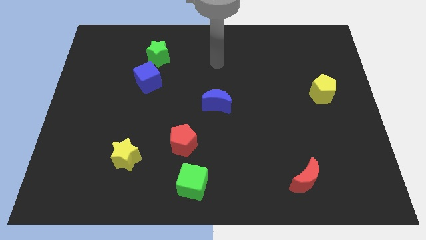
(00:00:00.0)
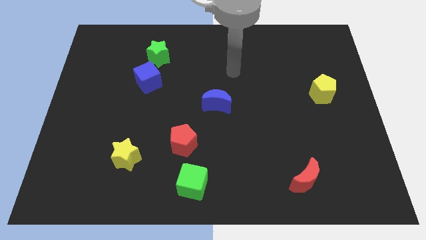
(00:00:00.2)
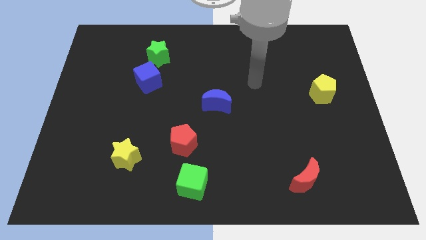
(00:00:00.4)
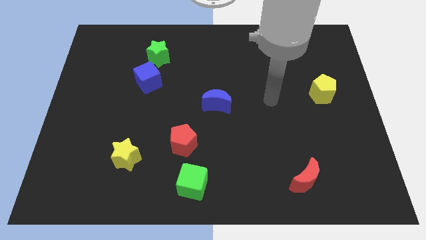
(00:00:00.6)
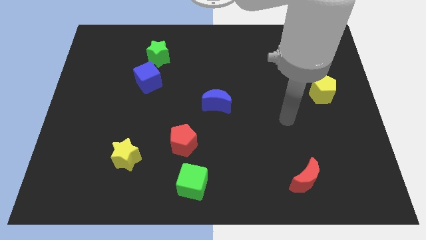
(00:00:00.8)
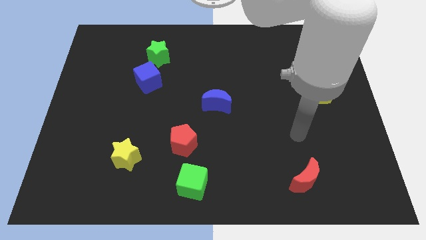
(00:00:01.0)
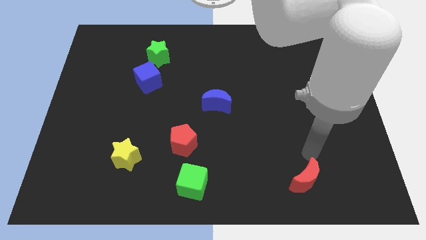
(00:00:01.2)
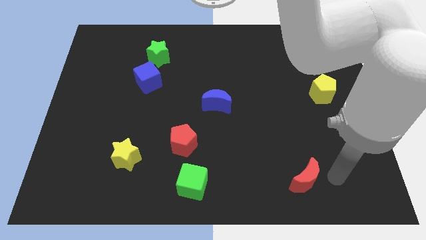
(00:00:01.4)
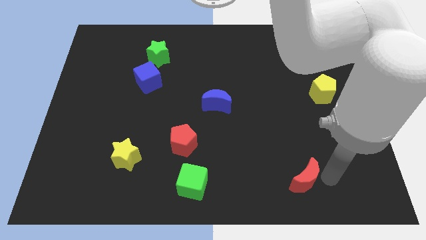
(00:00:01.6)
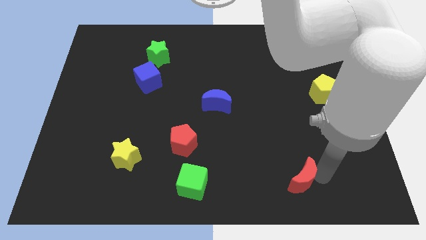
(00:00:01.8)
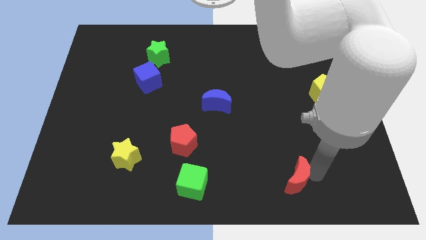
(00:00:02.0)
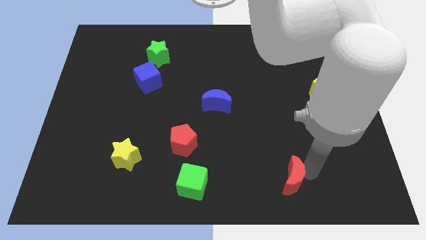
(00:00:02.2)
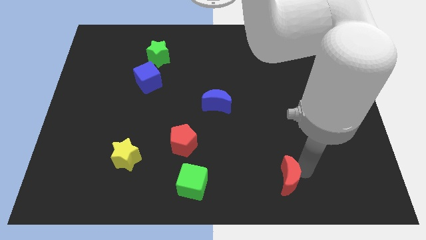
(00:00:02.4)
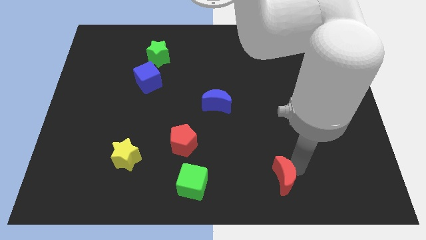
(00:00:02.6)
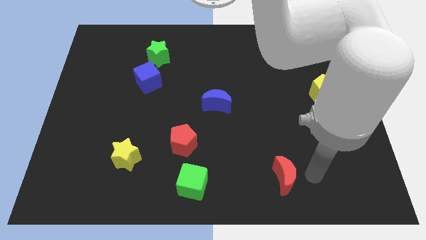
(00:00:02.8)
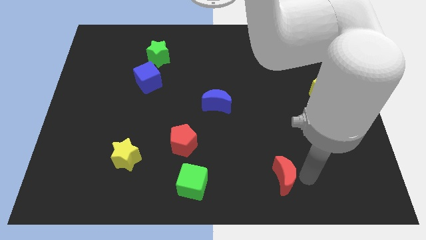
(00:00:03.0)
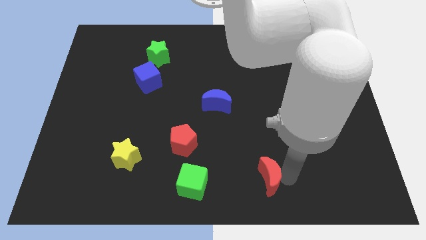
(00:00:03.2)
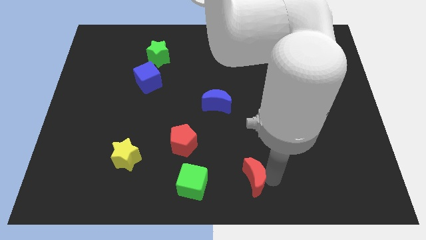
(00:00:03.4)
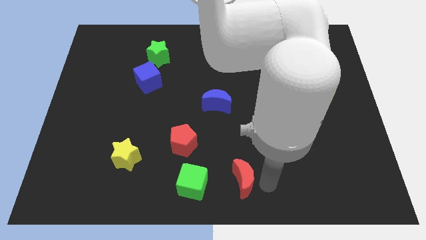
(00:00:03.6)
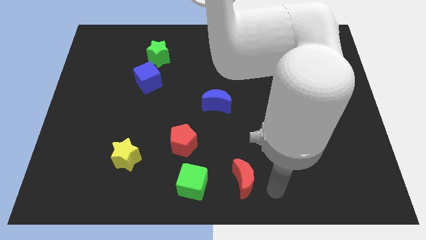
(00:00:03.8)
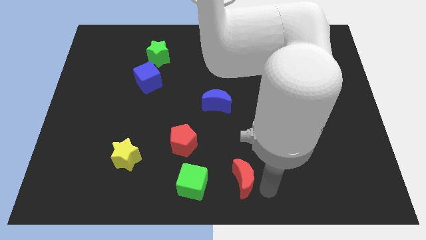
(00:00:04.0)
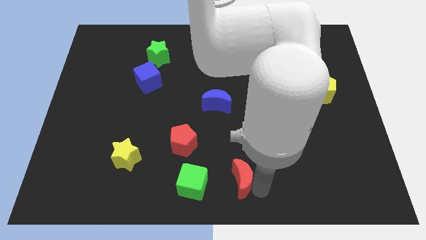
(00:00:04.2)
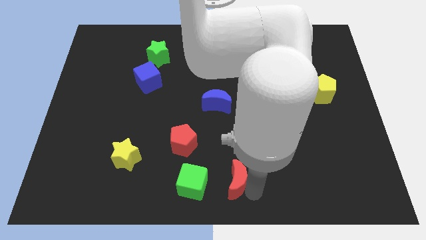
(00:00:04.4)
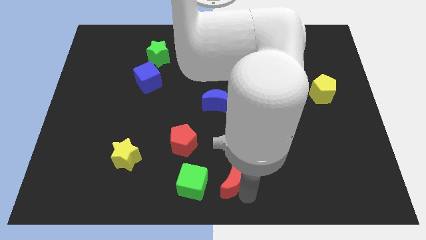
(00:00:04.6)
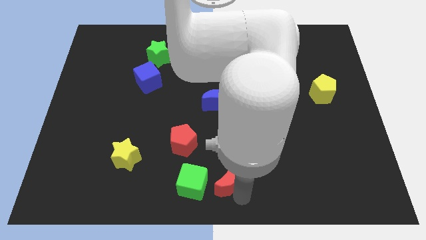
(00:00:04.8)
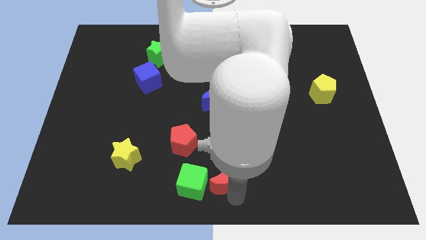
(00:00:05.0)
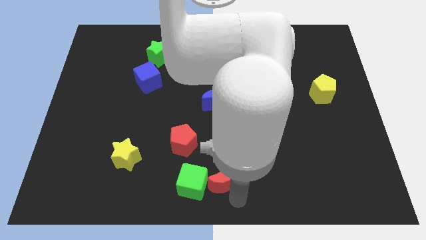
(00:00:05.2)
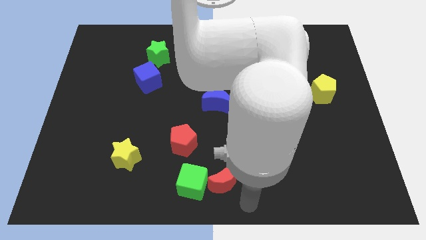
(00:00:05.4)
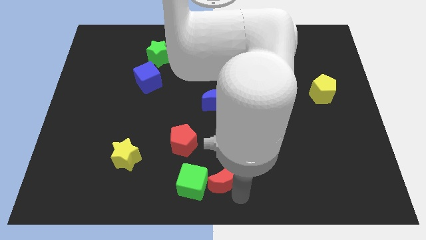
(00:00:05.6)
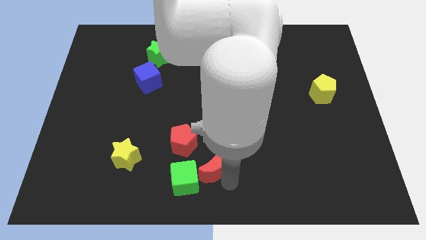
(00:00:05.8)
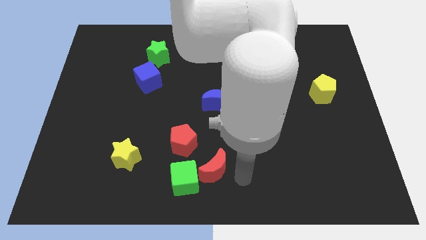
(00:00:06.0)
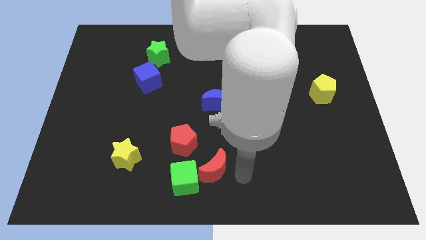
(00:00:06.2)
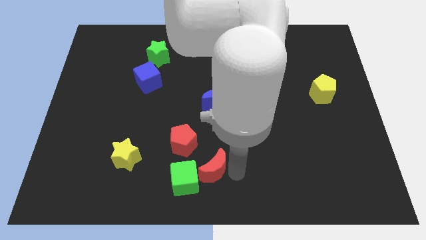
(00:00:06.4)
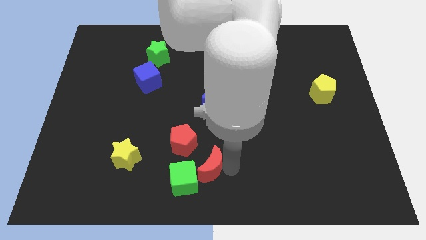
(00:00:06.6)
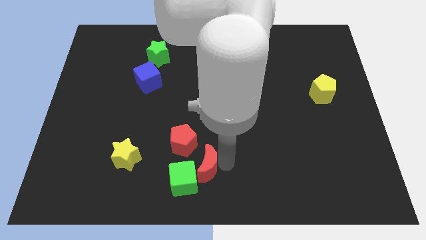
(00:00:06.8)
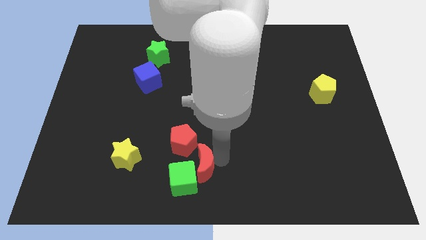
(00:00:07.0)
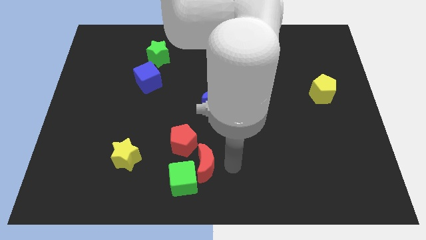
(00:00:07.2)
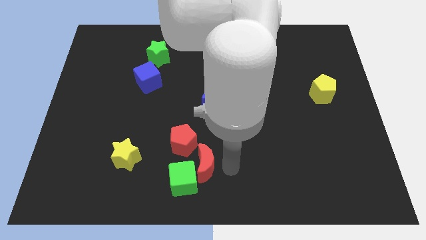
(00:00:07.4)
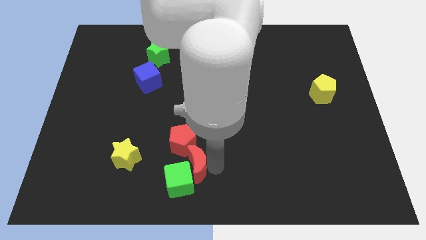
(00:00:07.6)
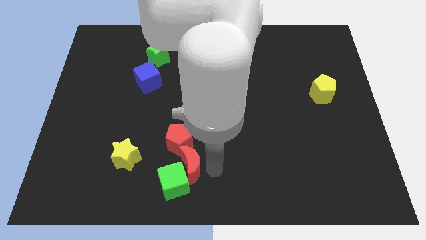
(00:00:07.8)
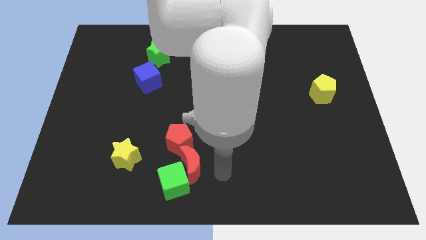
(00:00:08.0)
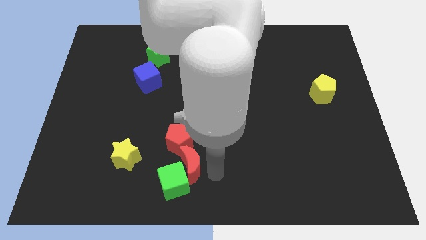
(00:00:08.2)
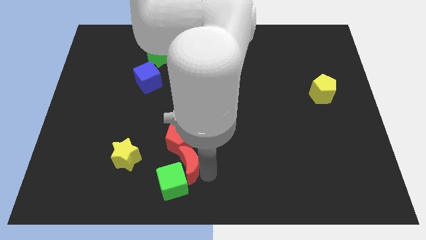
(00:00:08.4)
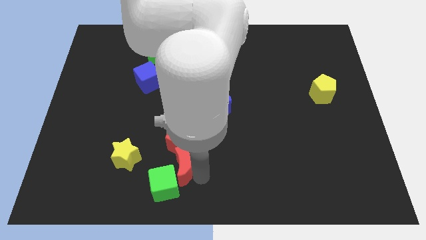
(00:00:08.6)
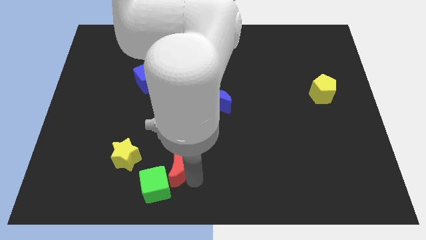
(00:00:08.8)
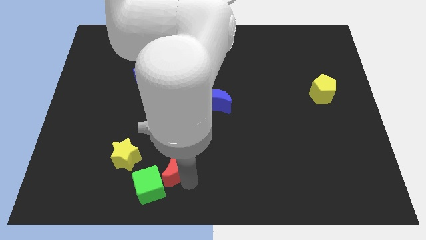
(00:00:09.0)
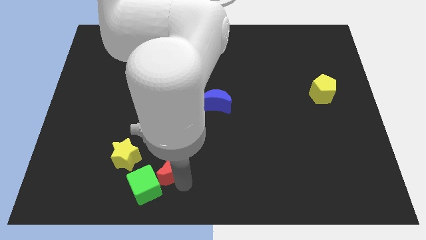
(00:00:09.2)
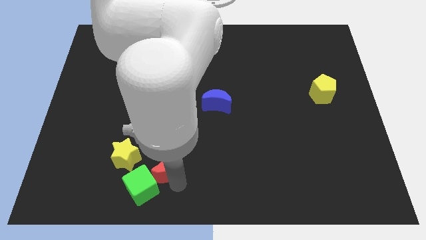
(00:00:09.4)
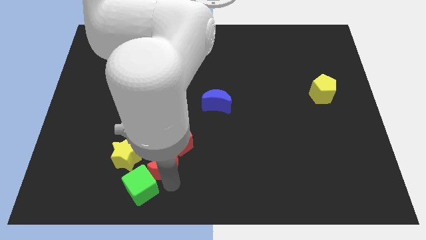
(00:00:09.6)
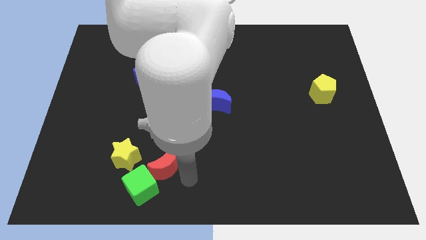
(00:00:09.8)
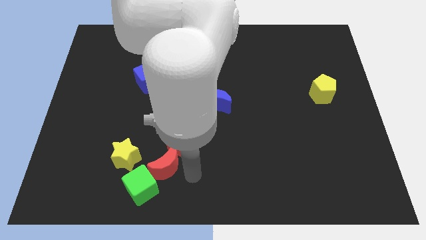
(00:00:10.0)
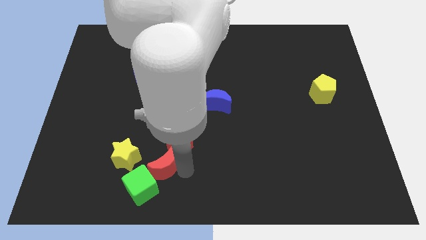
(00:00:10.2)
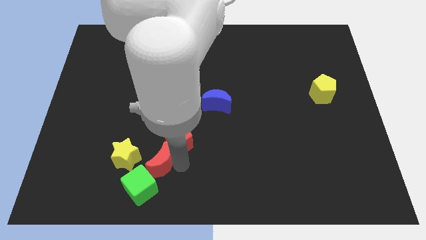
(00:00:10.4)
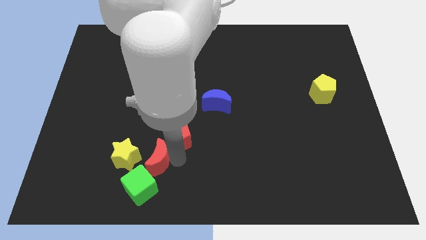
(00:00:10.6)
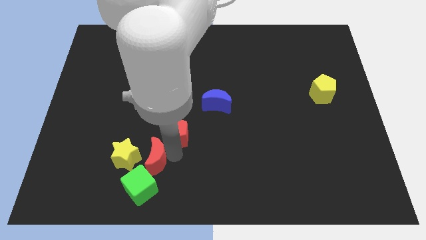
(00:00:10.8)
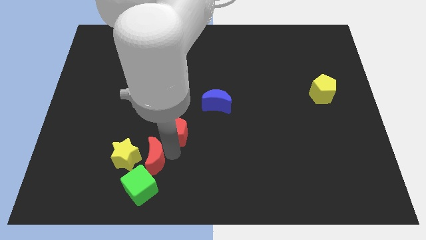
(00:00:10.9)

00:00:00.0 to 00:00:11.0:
move the red moon to the yellow star

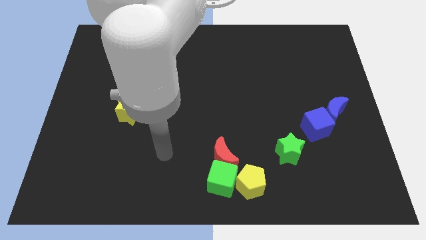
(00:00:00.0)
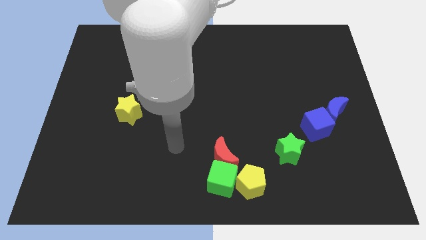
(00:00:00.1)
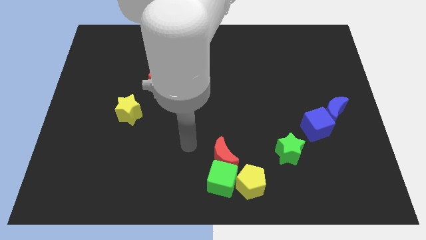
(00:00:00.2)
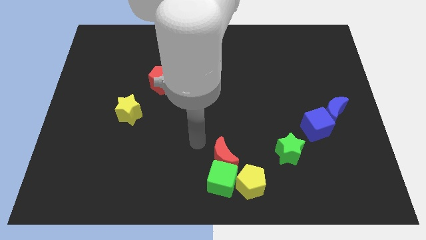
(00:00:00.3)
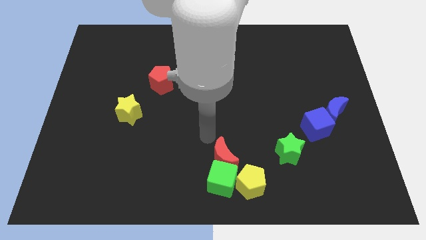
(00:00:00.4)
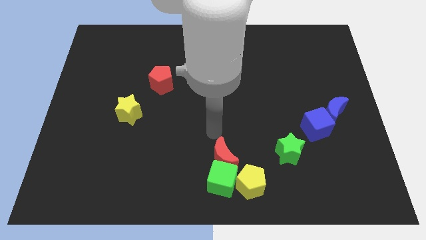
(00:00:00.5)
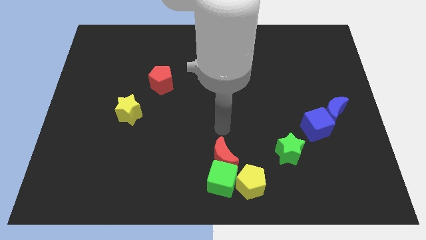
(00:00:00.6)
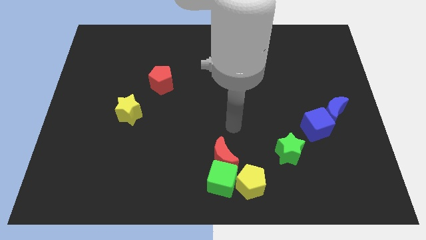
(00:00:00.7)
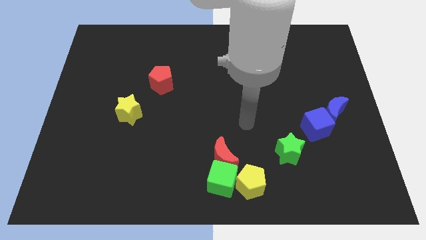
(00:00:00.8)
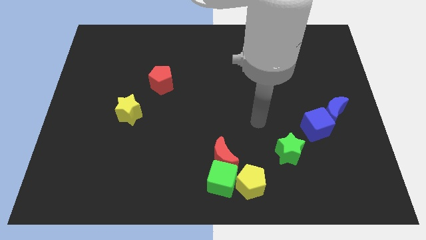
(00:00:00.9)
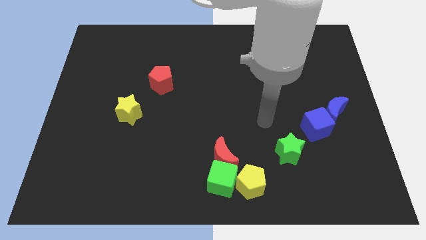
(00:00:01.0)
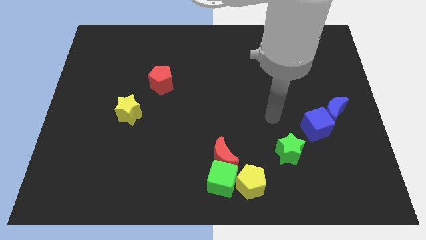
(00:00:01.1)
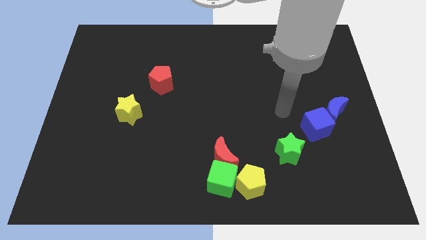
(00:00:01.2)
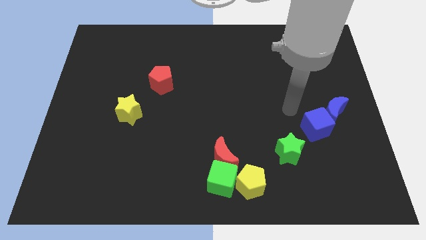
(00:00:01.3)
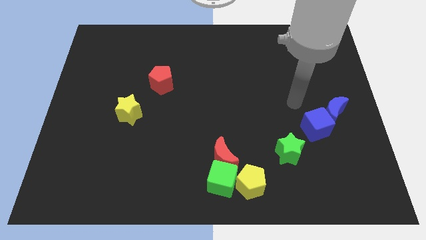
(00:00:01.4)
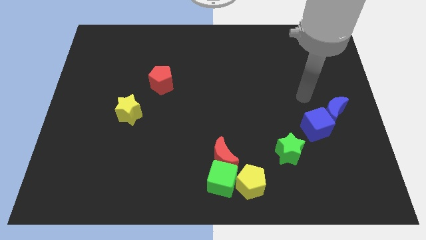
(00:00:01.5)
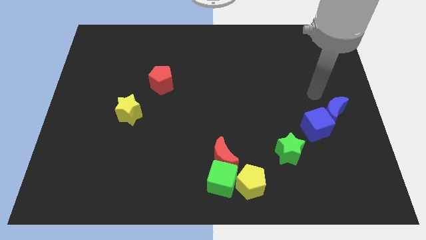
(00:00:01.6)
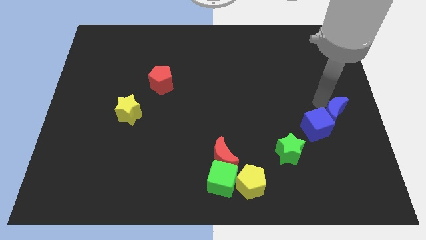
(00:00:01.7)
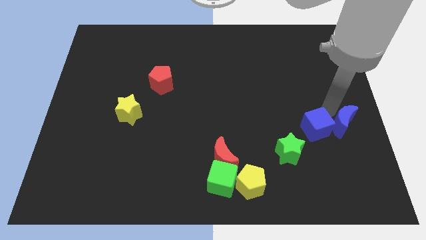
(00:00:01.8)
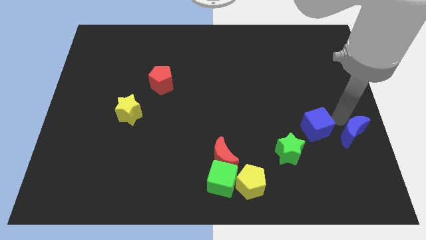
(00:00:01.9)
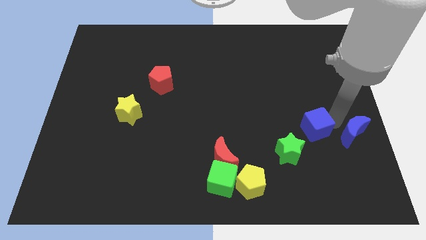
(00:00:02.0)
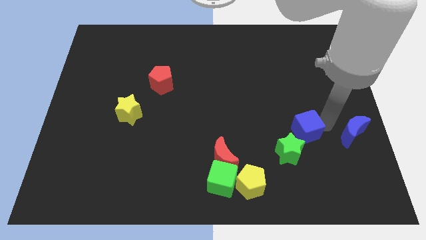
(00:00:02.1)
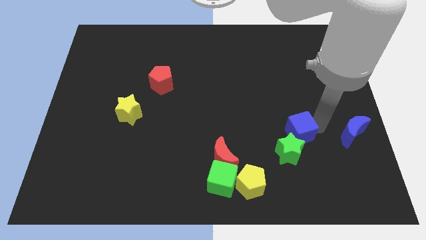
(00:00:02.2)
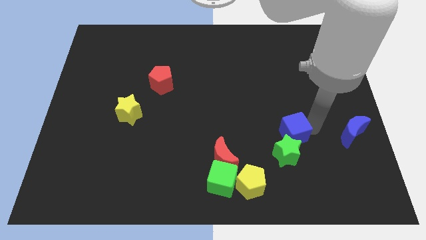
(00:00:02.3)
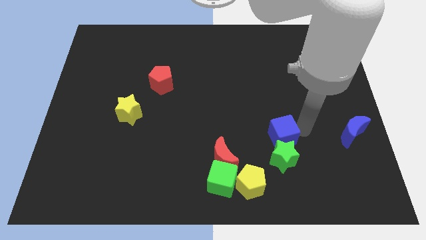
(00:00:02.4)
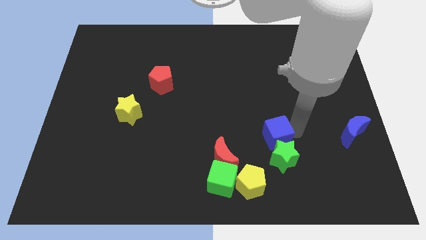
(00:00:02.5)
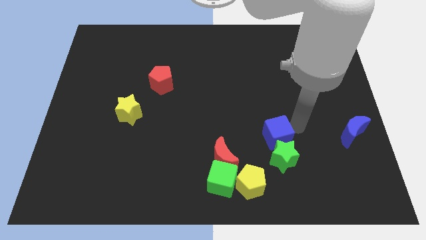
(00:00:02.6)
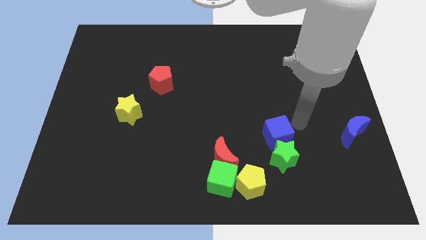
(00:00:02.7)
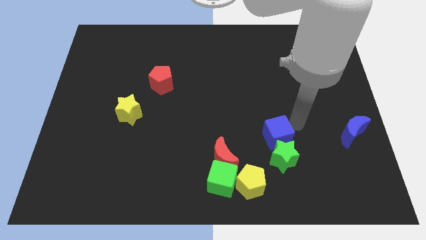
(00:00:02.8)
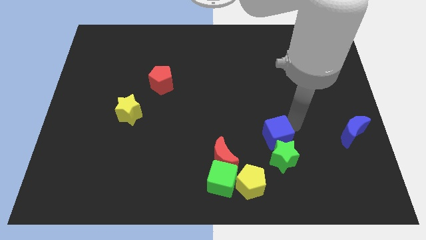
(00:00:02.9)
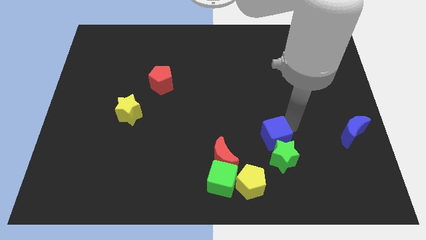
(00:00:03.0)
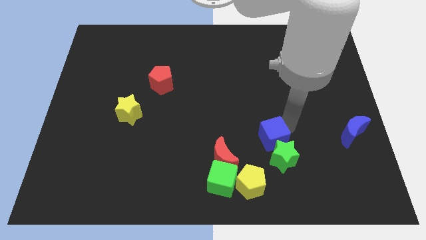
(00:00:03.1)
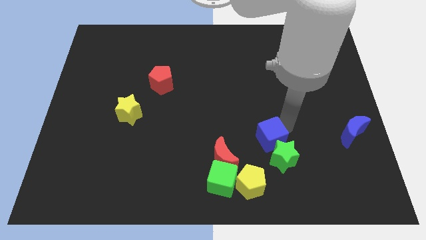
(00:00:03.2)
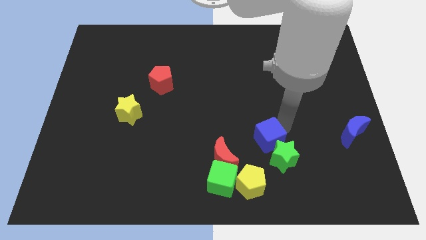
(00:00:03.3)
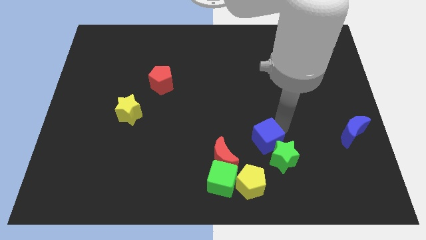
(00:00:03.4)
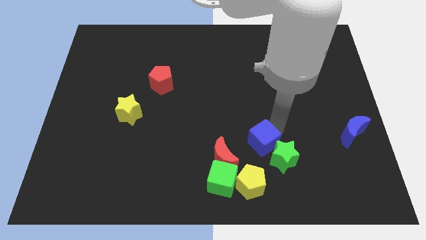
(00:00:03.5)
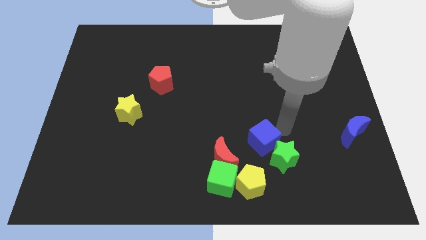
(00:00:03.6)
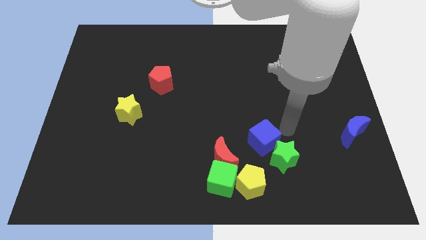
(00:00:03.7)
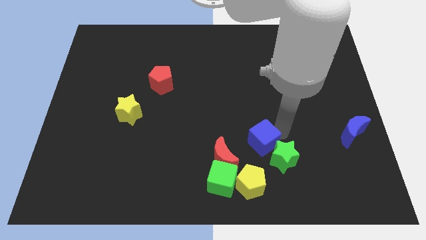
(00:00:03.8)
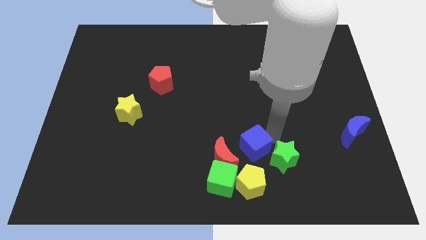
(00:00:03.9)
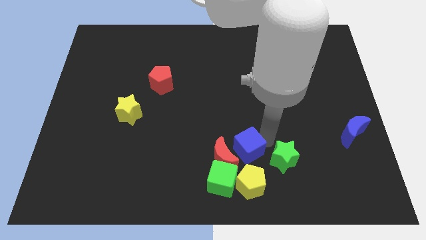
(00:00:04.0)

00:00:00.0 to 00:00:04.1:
push the blue cube next to the red moon
